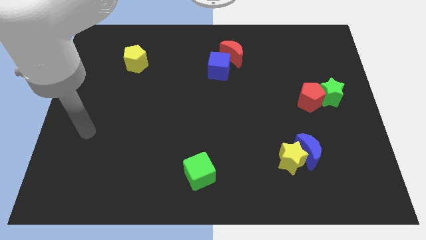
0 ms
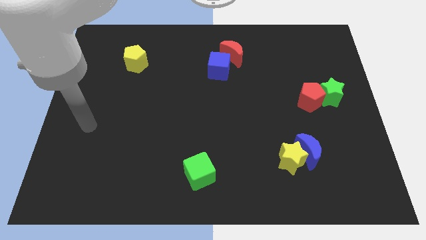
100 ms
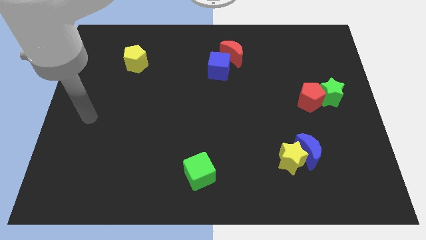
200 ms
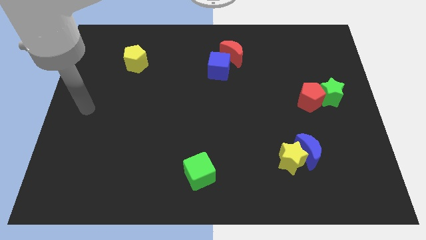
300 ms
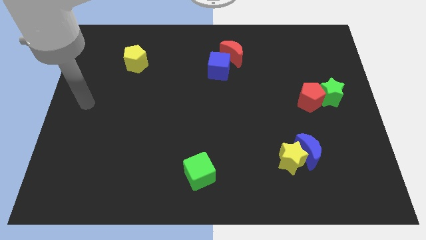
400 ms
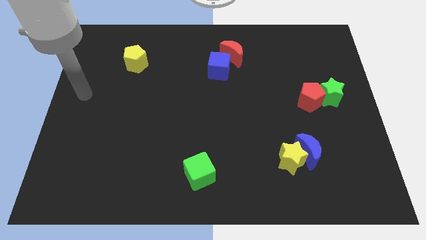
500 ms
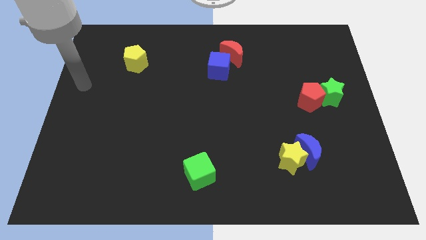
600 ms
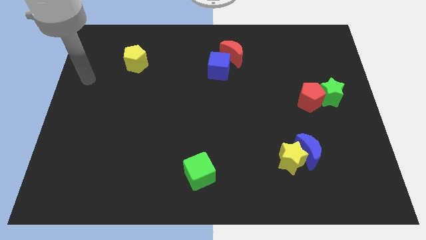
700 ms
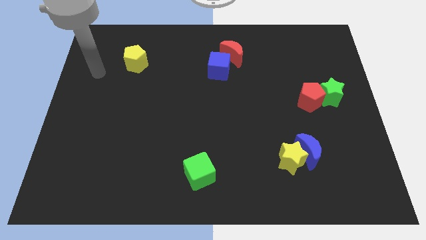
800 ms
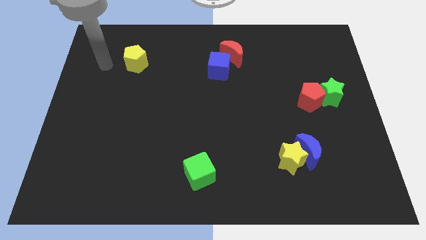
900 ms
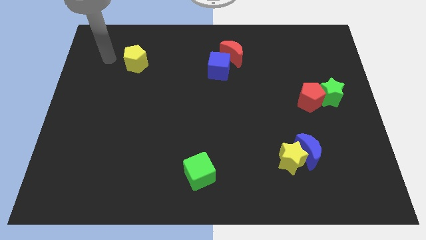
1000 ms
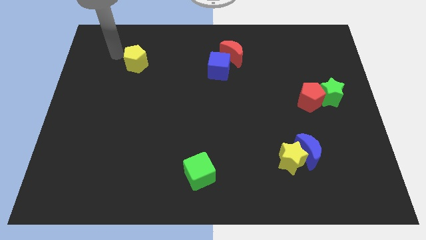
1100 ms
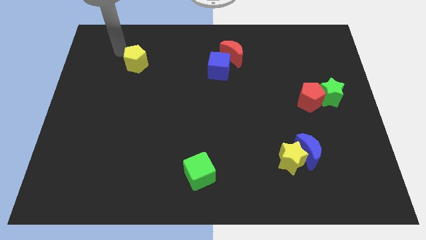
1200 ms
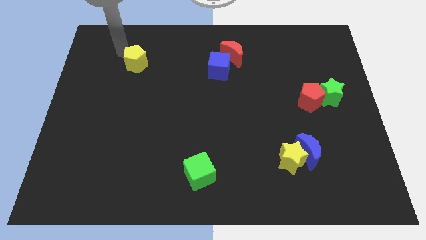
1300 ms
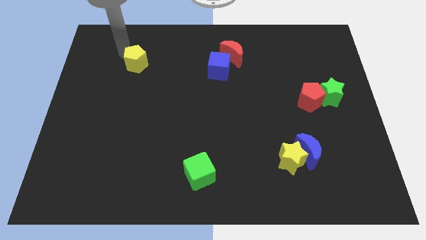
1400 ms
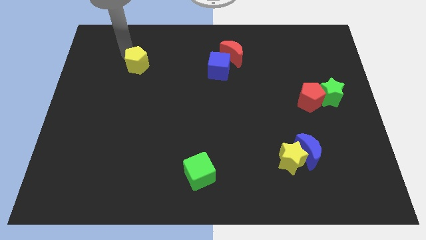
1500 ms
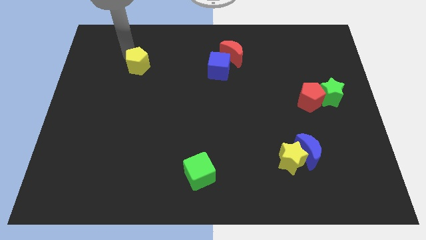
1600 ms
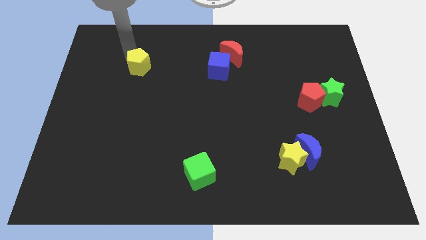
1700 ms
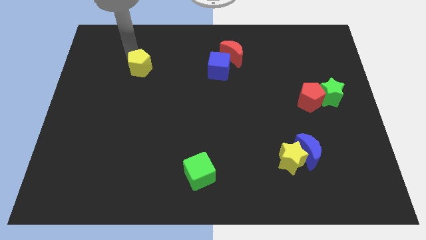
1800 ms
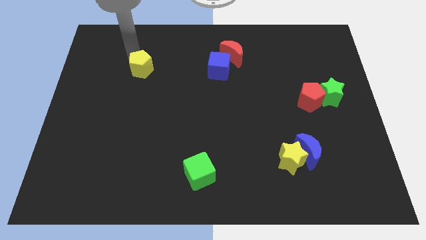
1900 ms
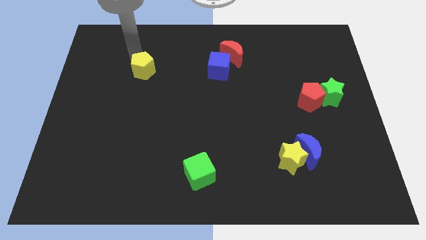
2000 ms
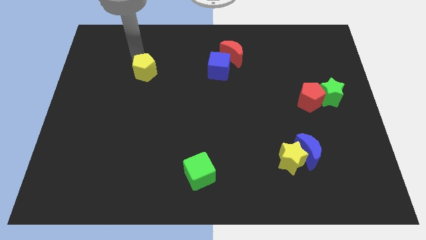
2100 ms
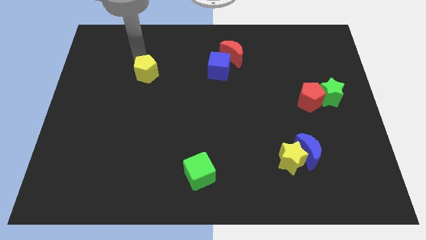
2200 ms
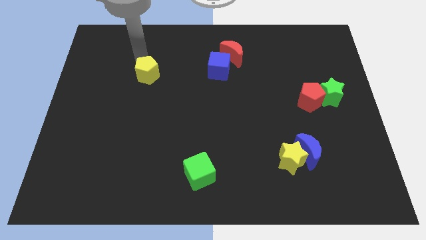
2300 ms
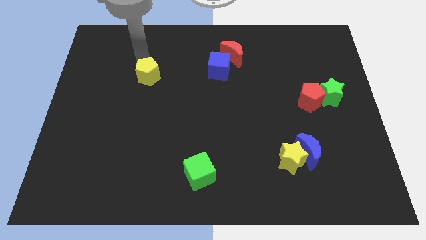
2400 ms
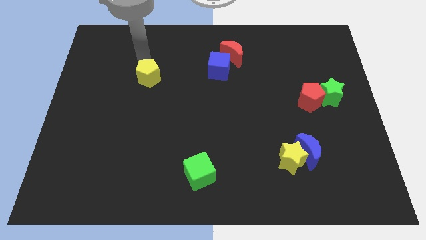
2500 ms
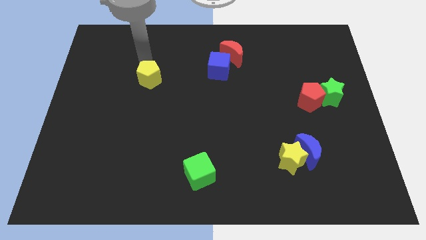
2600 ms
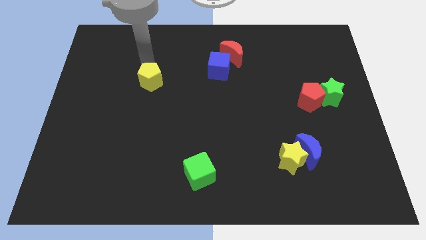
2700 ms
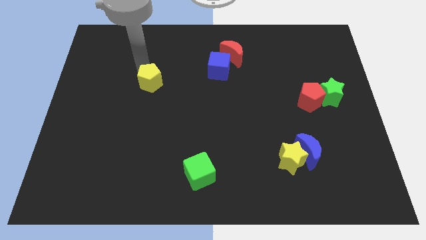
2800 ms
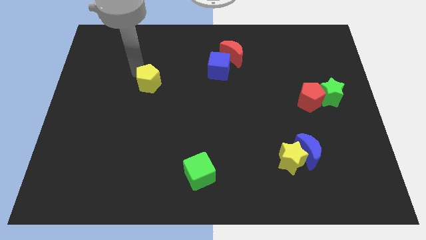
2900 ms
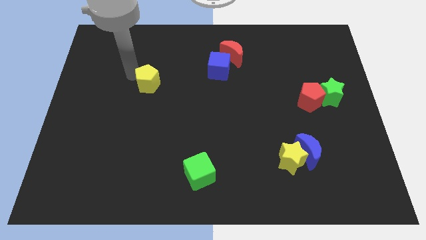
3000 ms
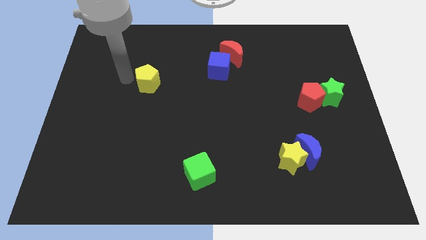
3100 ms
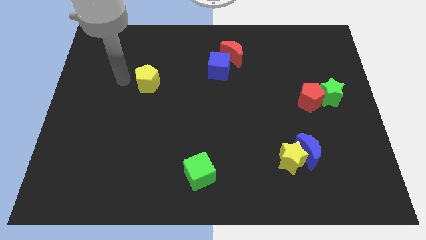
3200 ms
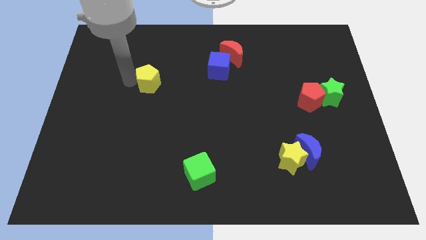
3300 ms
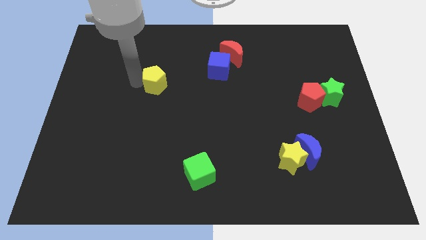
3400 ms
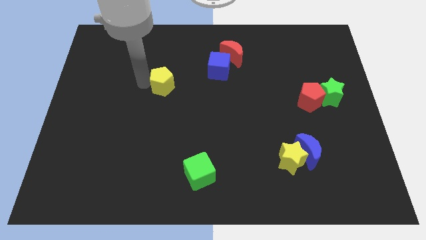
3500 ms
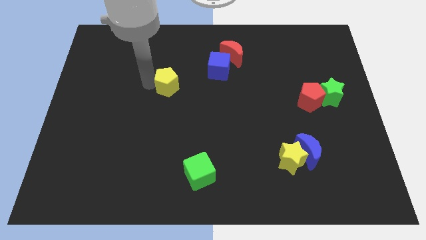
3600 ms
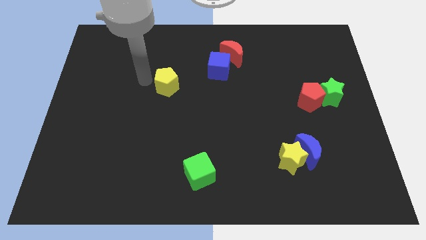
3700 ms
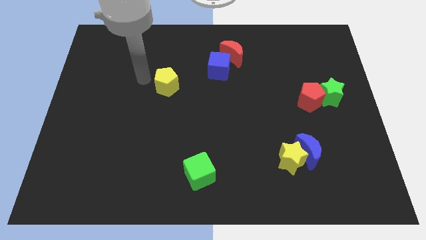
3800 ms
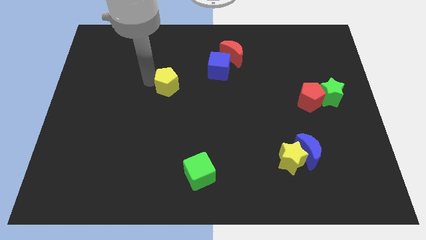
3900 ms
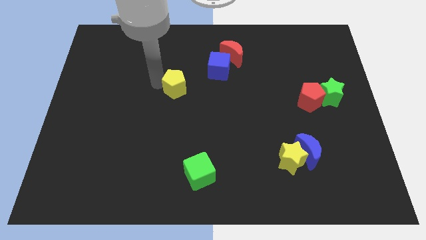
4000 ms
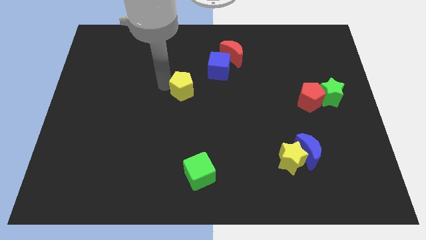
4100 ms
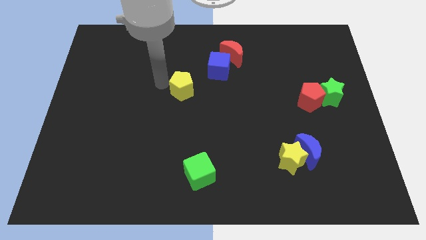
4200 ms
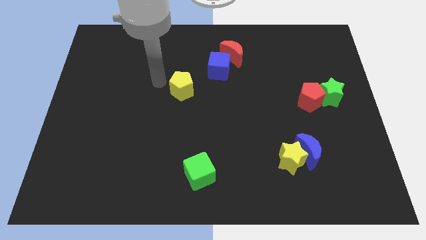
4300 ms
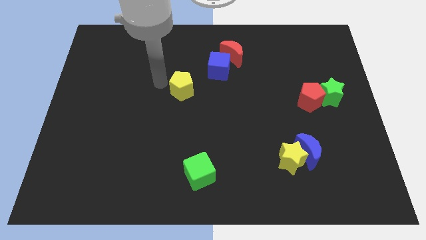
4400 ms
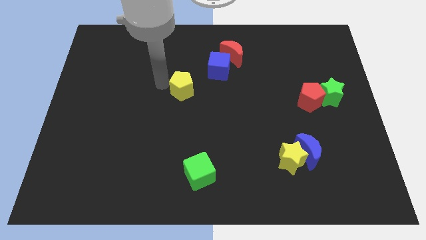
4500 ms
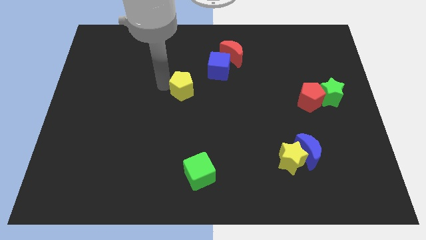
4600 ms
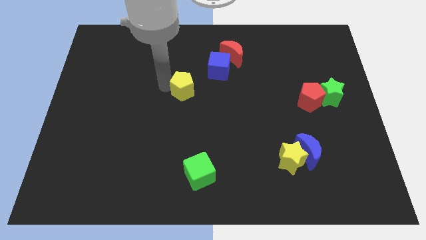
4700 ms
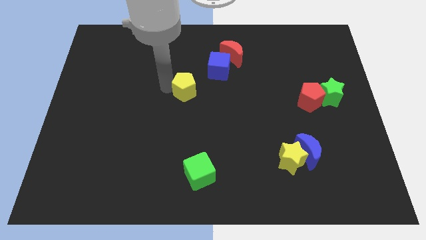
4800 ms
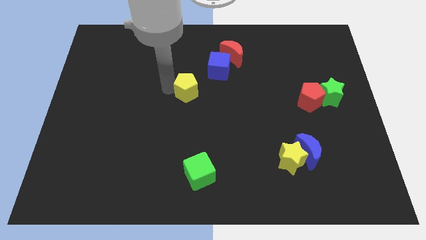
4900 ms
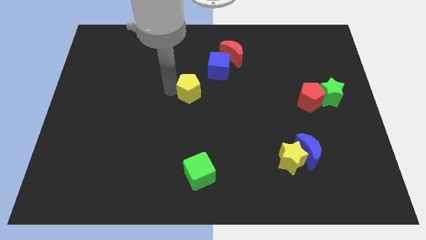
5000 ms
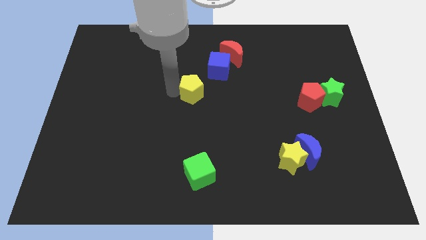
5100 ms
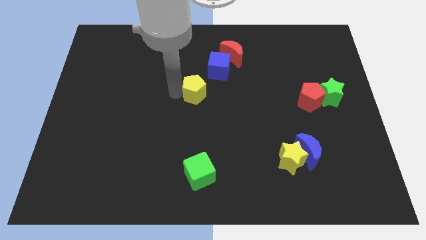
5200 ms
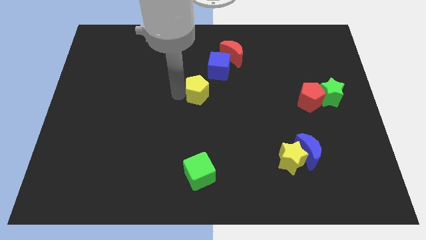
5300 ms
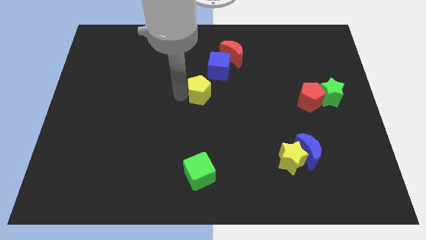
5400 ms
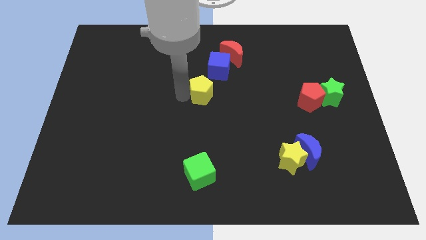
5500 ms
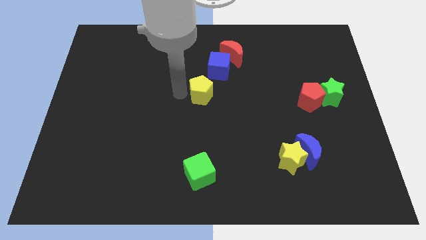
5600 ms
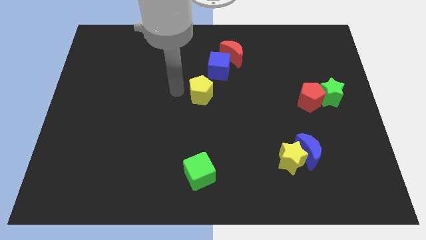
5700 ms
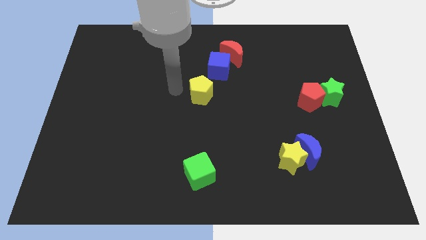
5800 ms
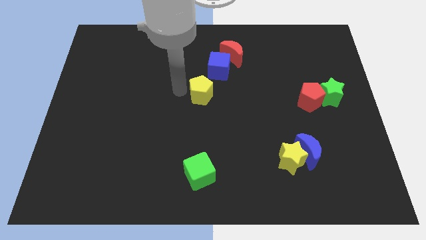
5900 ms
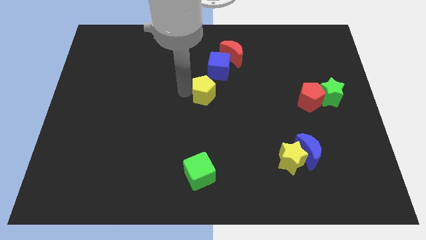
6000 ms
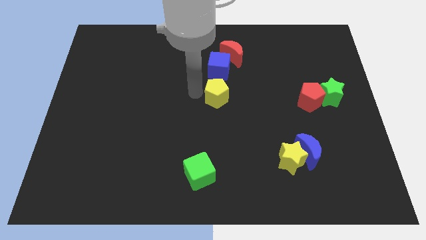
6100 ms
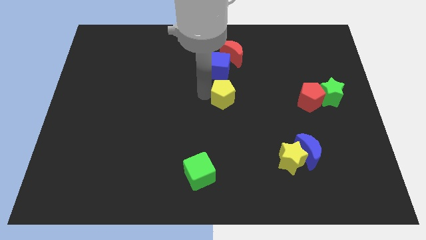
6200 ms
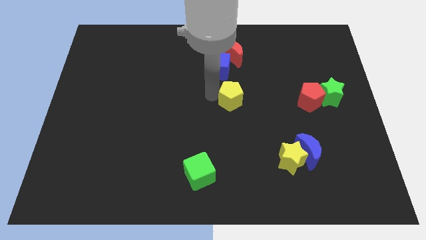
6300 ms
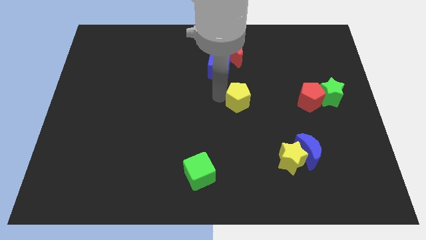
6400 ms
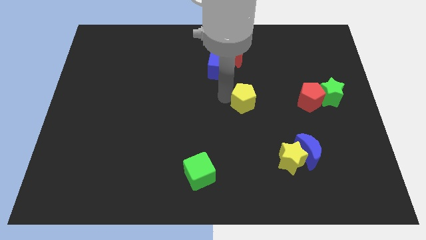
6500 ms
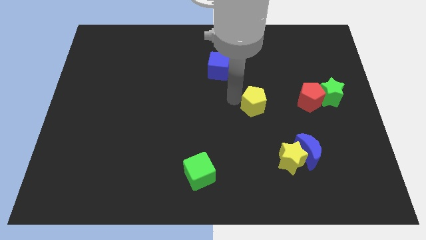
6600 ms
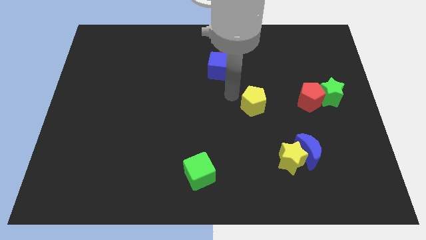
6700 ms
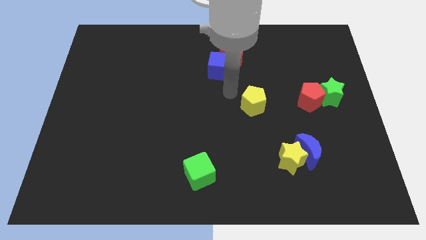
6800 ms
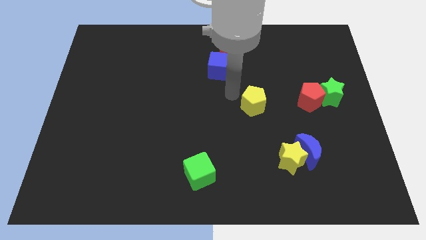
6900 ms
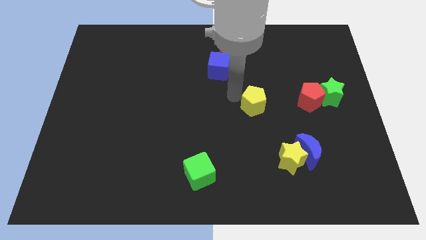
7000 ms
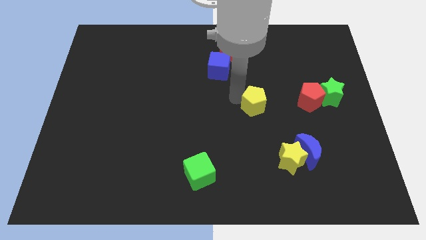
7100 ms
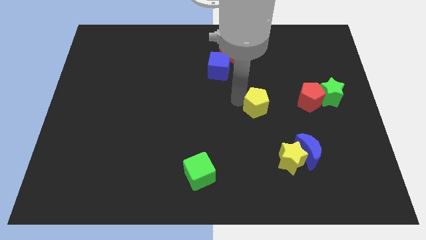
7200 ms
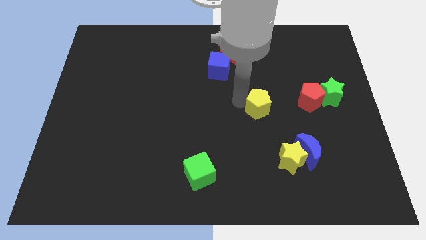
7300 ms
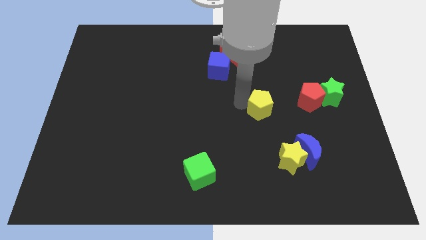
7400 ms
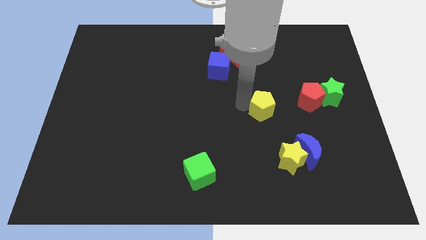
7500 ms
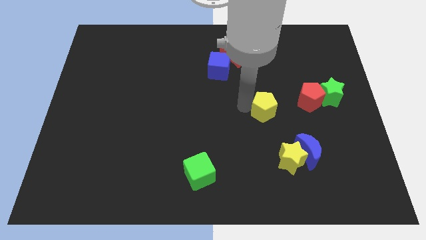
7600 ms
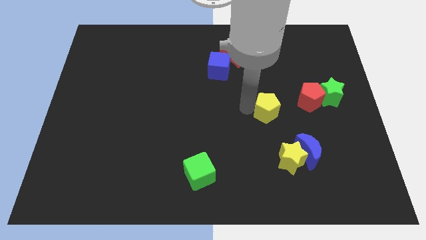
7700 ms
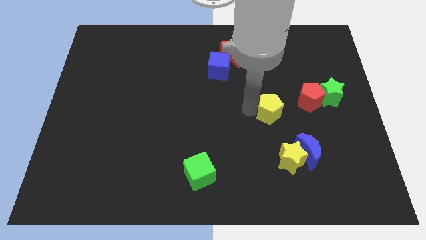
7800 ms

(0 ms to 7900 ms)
put the yellow pentagon to the bottom left side of the red pentagon

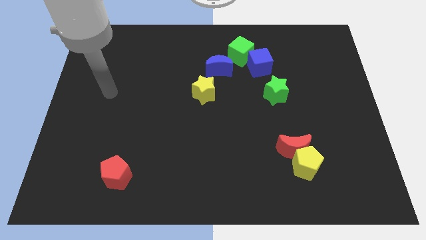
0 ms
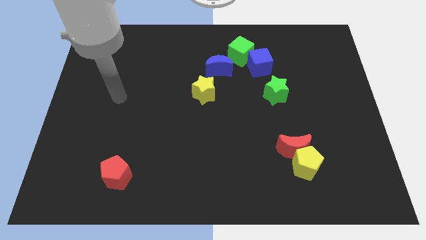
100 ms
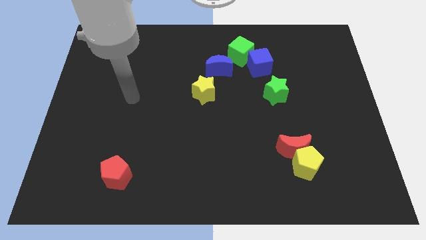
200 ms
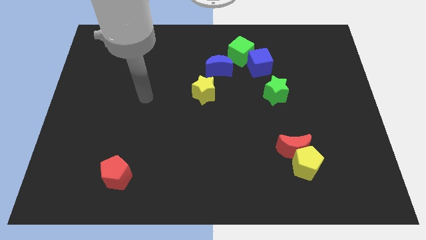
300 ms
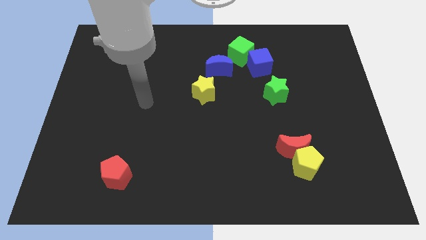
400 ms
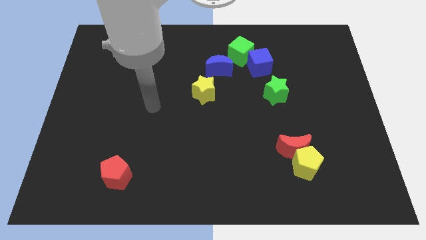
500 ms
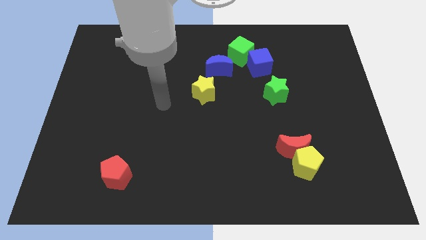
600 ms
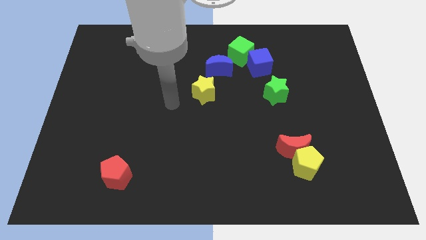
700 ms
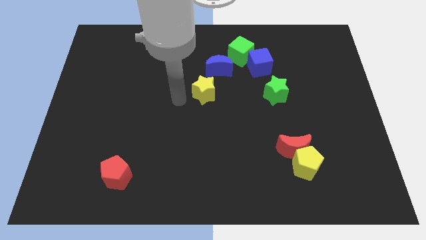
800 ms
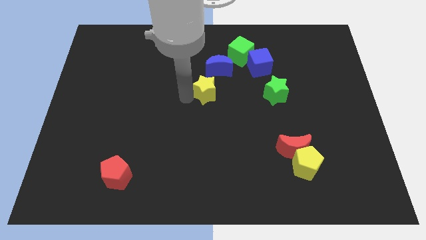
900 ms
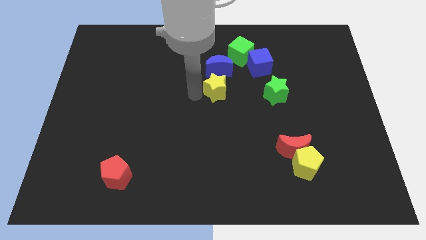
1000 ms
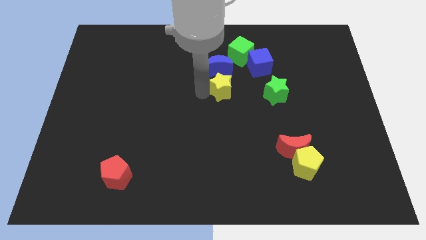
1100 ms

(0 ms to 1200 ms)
move the yellow star diagonally down and to the left of the blue cube
